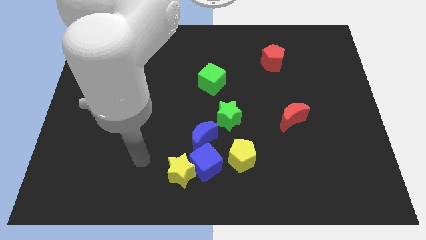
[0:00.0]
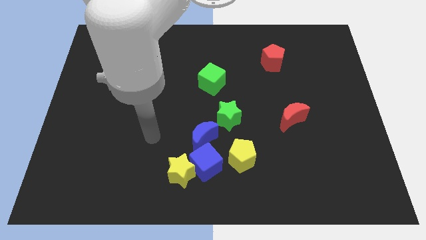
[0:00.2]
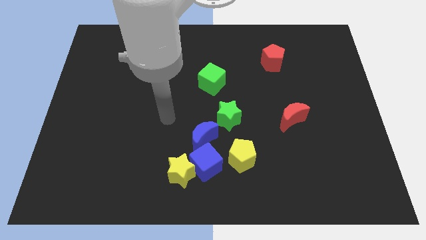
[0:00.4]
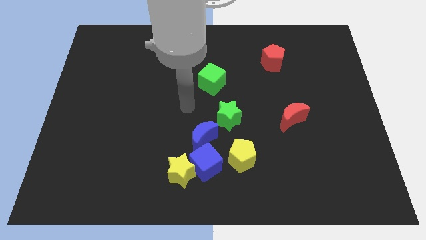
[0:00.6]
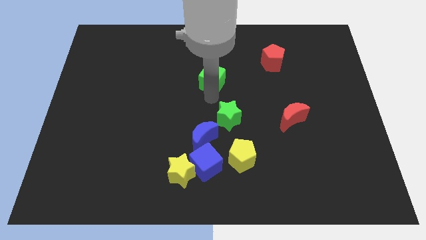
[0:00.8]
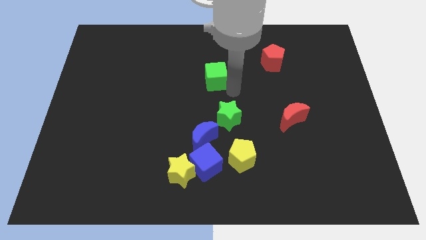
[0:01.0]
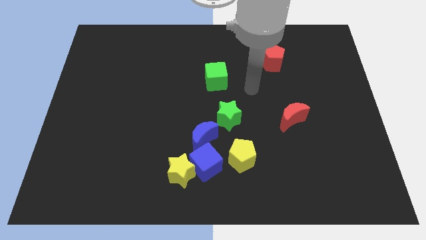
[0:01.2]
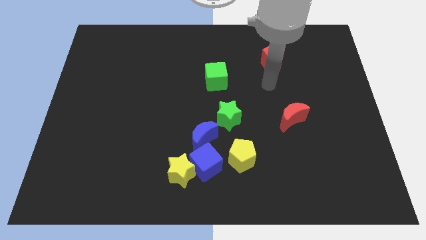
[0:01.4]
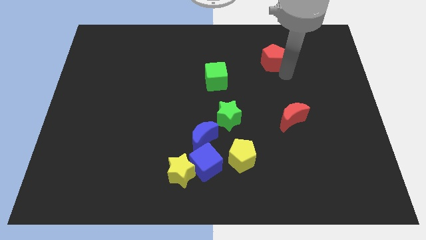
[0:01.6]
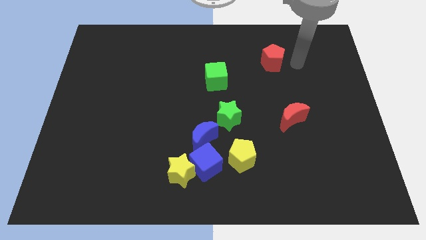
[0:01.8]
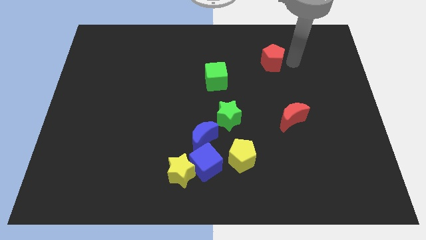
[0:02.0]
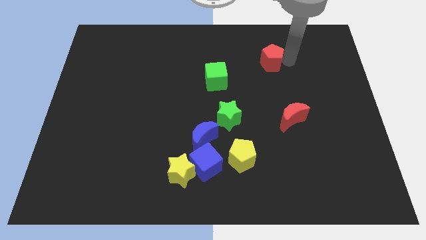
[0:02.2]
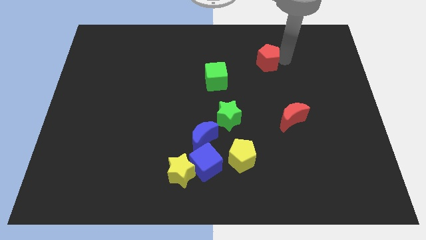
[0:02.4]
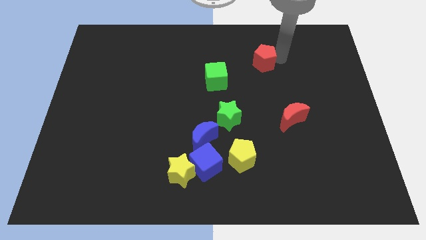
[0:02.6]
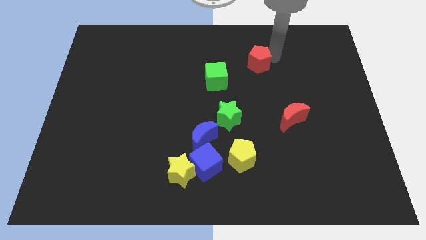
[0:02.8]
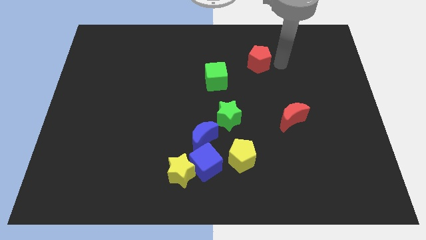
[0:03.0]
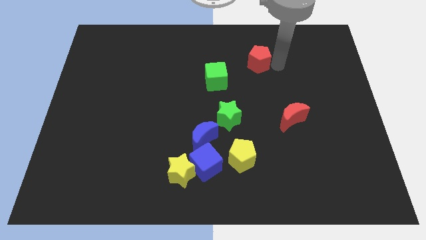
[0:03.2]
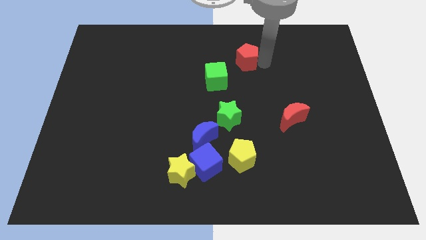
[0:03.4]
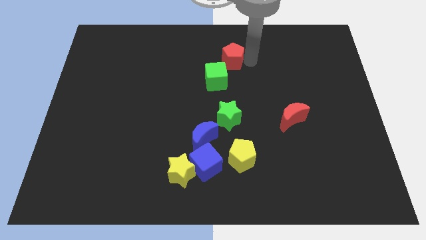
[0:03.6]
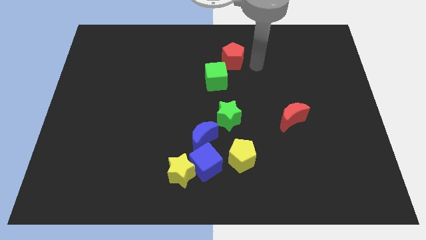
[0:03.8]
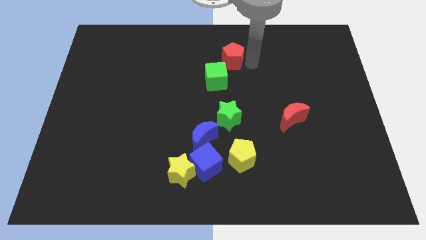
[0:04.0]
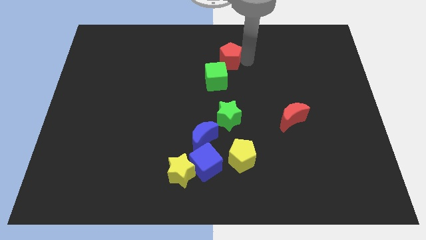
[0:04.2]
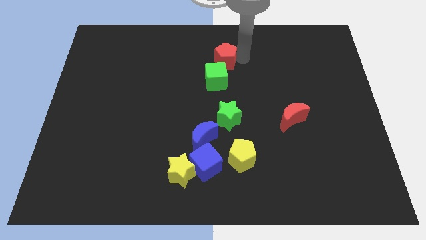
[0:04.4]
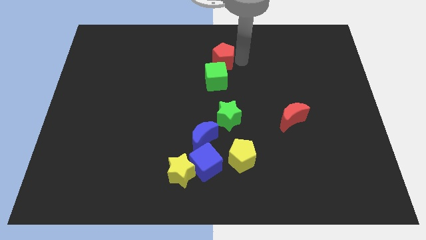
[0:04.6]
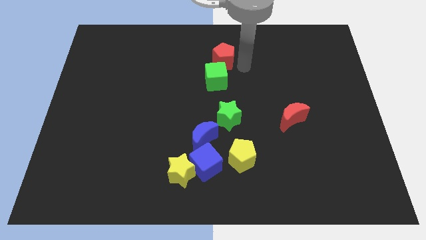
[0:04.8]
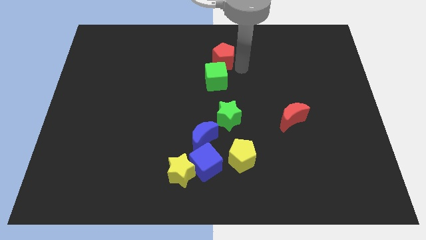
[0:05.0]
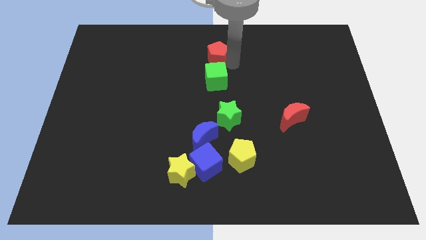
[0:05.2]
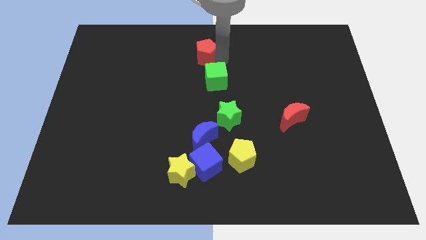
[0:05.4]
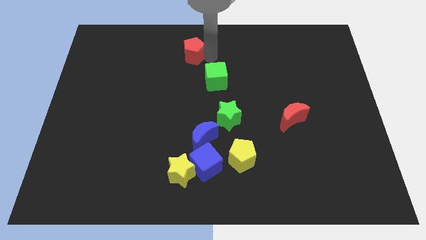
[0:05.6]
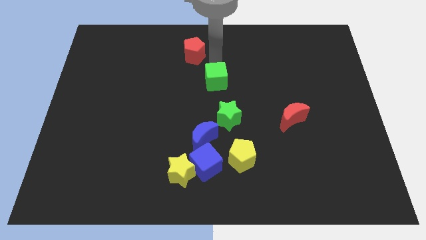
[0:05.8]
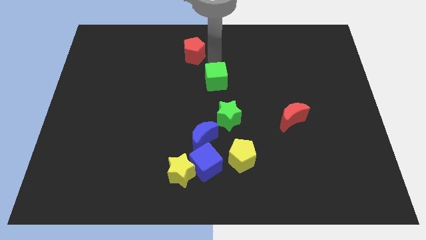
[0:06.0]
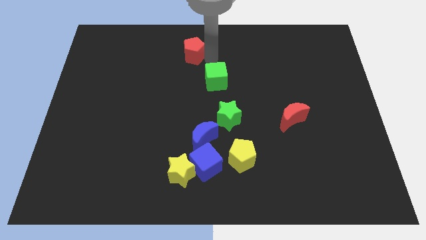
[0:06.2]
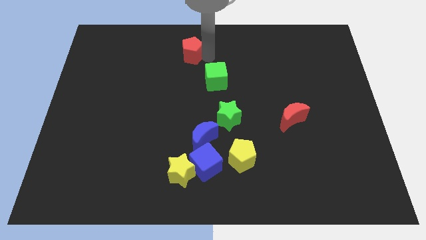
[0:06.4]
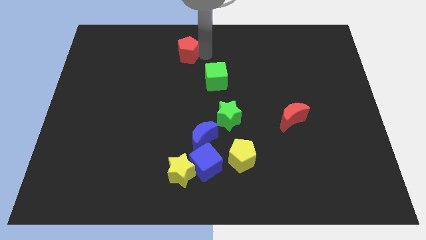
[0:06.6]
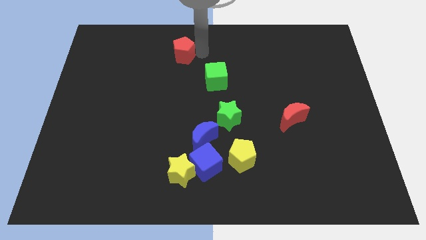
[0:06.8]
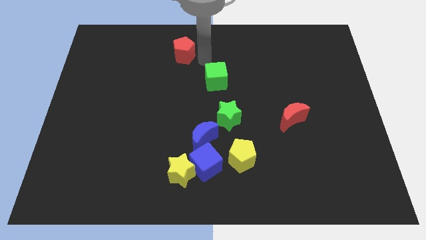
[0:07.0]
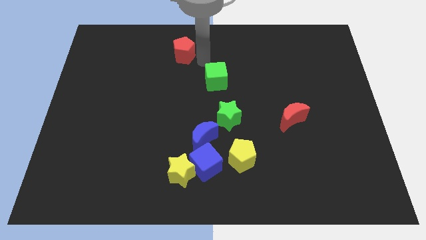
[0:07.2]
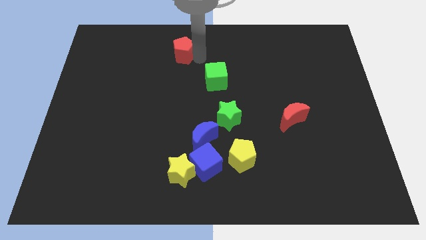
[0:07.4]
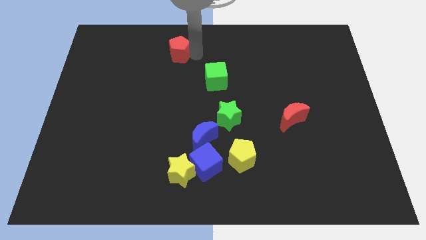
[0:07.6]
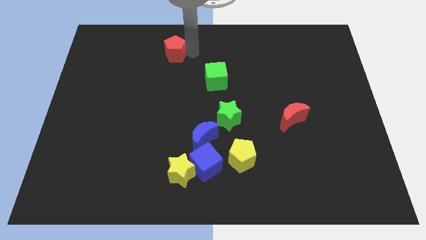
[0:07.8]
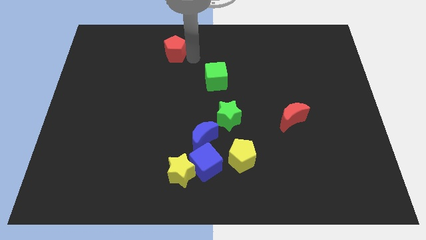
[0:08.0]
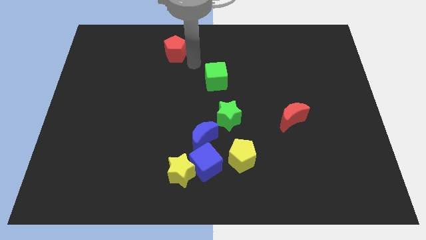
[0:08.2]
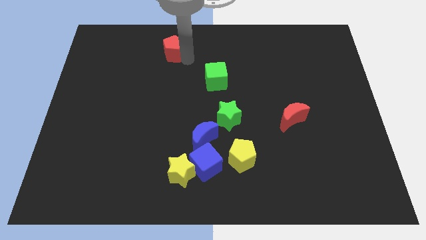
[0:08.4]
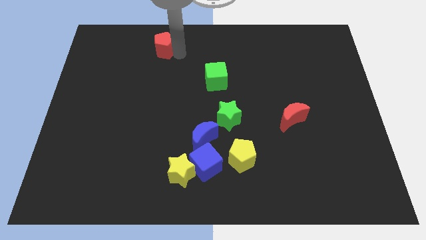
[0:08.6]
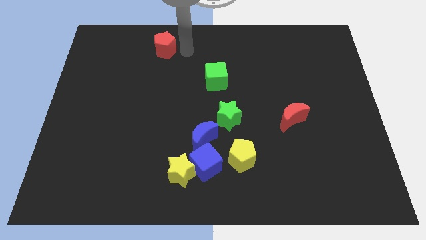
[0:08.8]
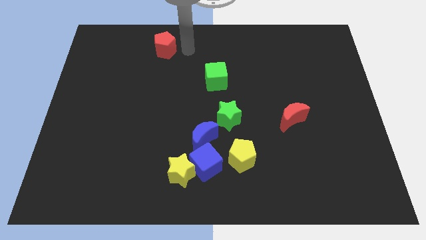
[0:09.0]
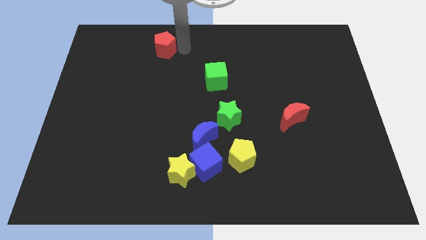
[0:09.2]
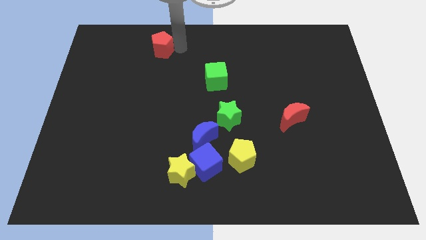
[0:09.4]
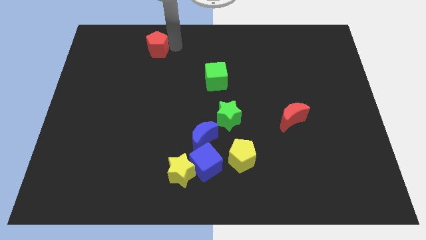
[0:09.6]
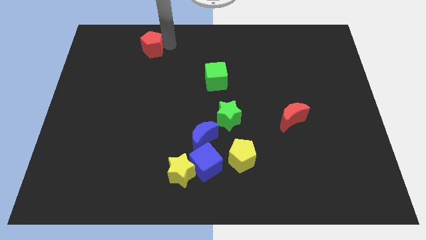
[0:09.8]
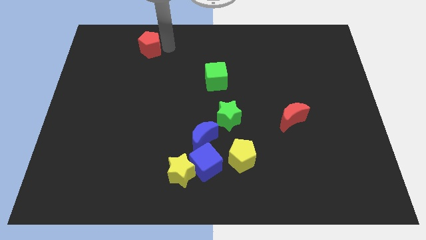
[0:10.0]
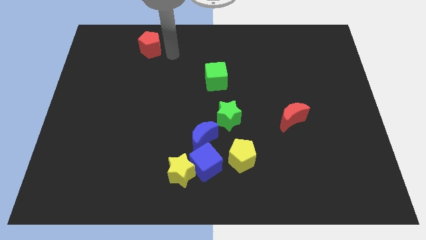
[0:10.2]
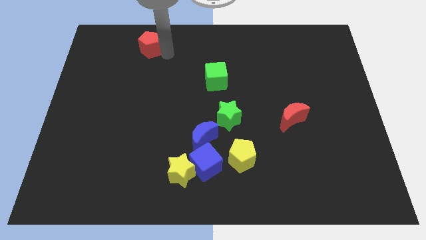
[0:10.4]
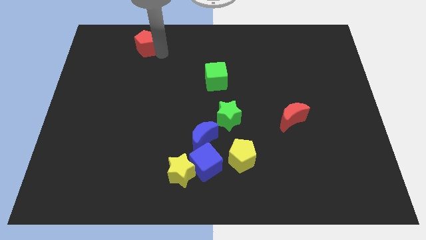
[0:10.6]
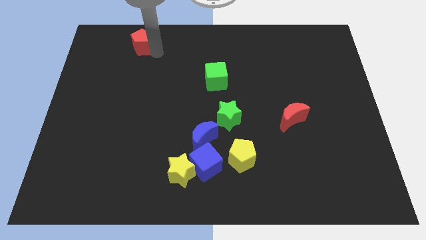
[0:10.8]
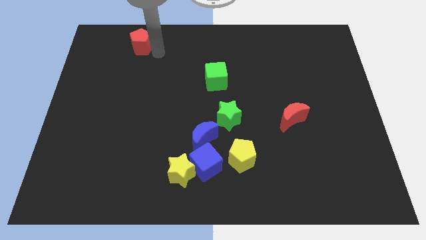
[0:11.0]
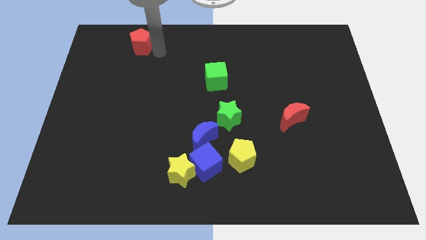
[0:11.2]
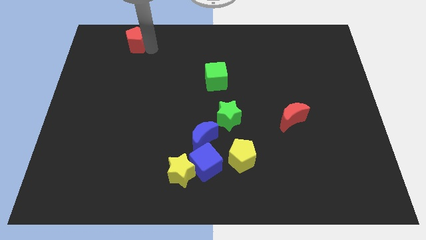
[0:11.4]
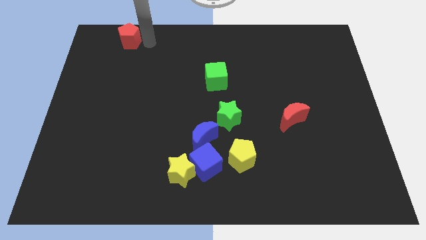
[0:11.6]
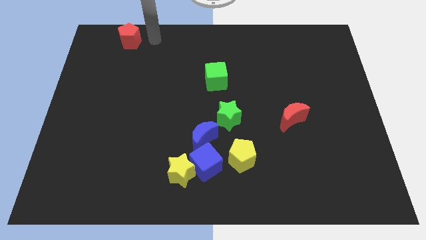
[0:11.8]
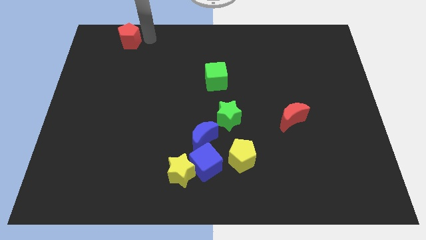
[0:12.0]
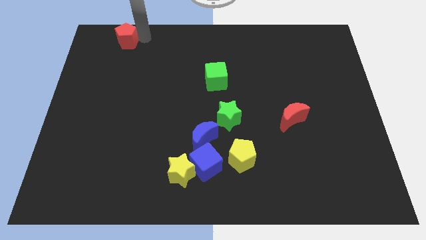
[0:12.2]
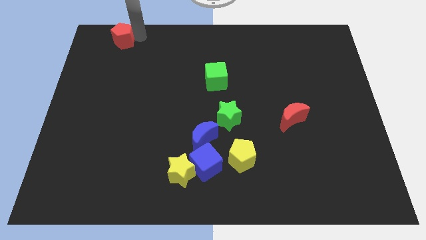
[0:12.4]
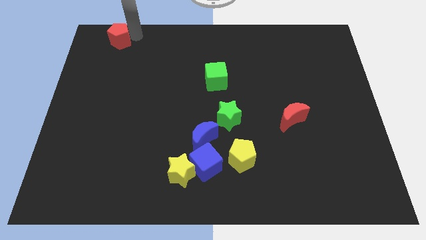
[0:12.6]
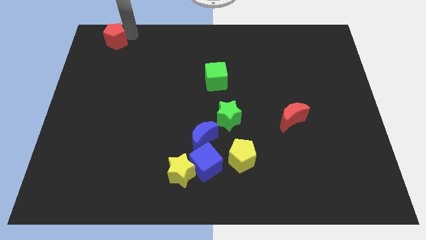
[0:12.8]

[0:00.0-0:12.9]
push the red pentagon to the top left of the board
